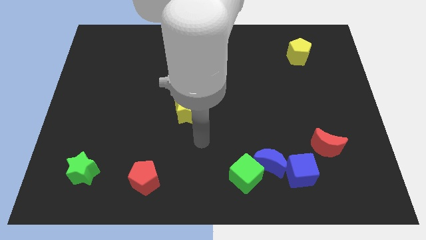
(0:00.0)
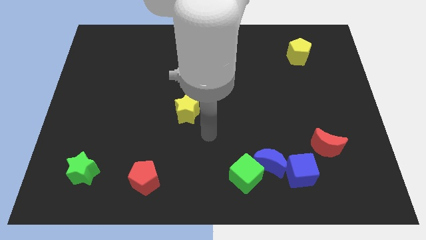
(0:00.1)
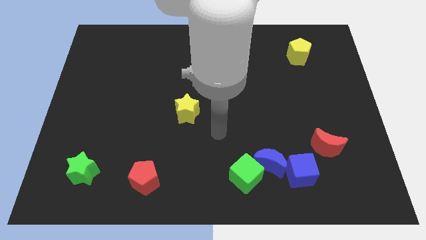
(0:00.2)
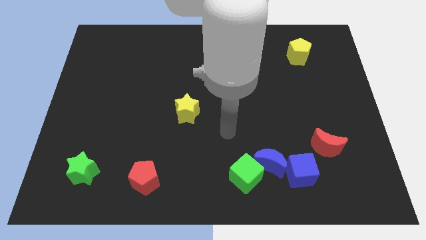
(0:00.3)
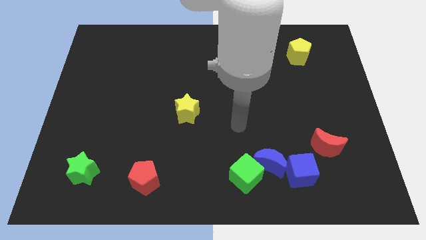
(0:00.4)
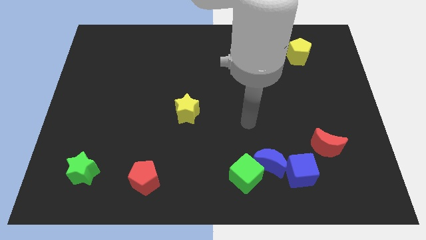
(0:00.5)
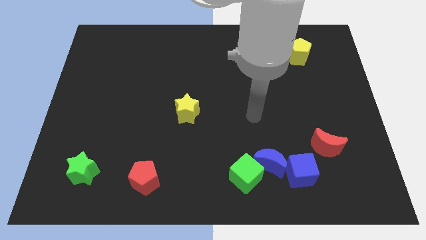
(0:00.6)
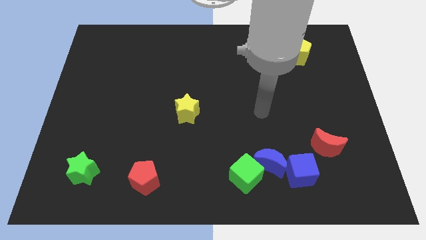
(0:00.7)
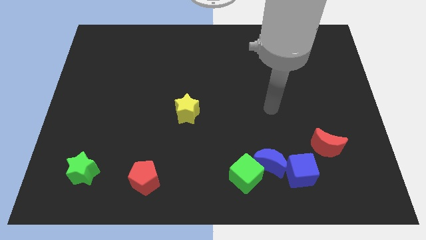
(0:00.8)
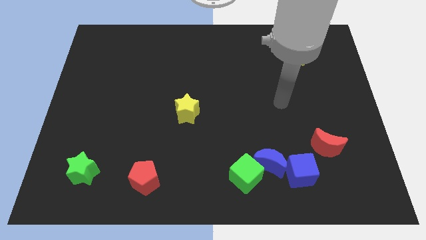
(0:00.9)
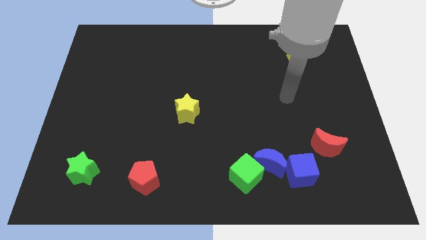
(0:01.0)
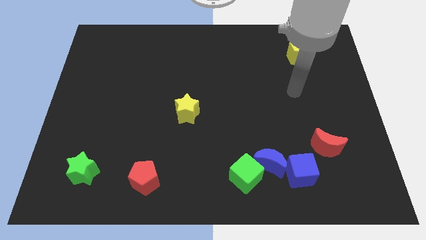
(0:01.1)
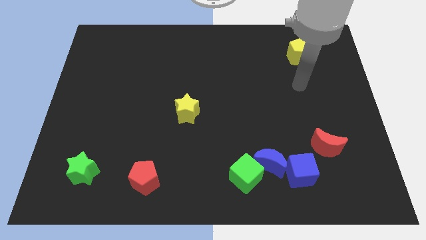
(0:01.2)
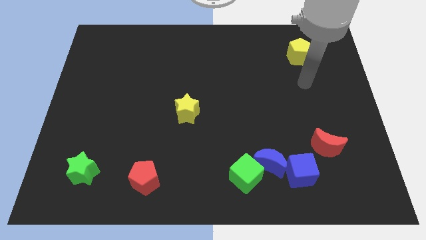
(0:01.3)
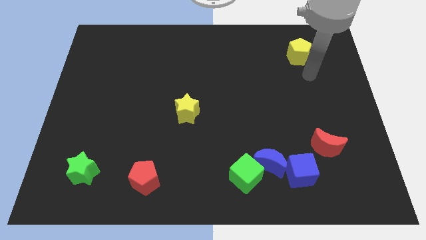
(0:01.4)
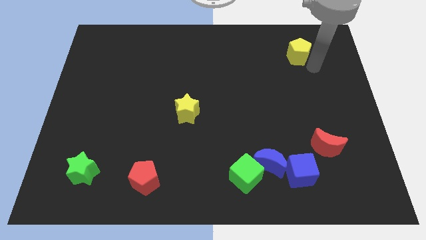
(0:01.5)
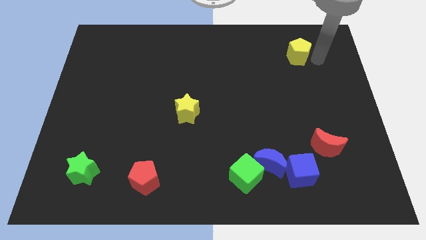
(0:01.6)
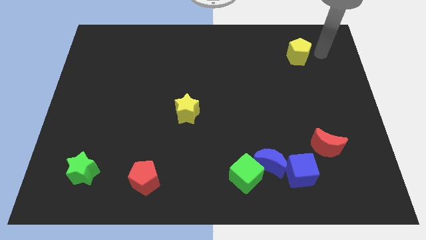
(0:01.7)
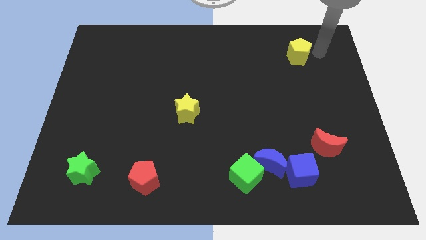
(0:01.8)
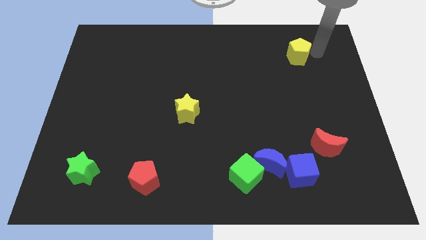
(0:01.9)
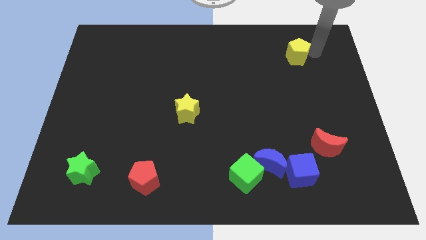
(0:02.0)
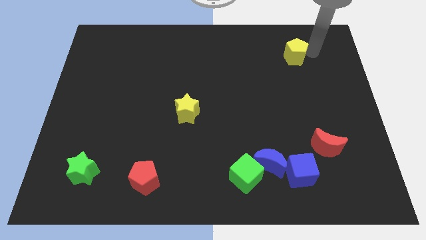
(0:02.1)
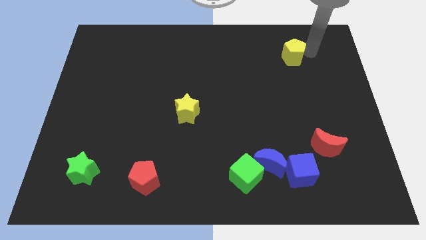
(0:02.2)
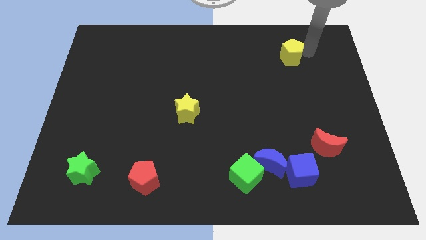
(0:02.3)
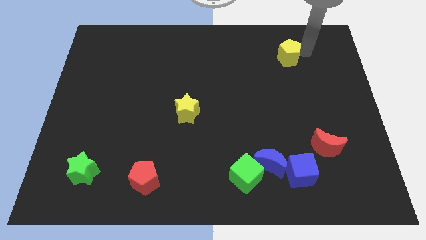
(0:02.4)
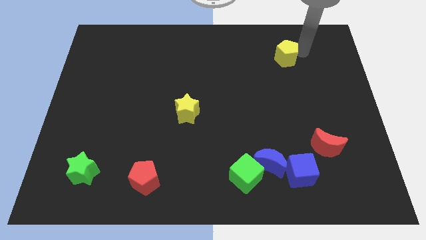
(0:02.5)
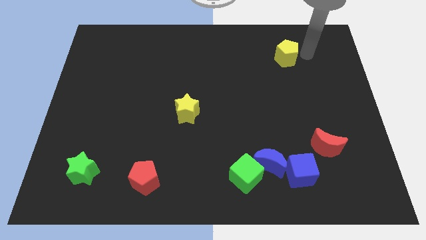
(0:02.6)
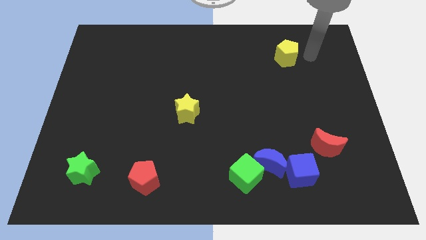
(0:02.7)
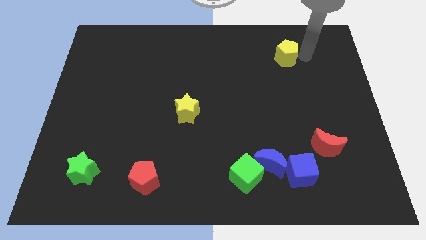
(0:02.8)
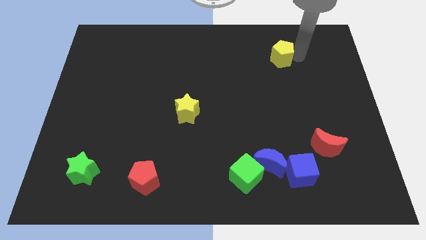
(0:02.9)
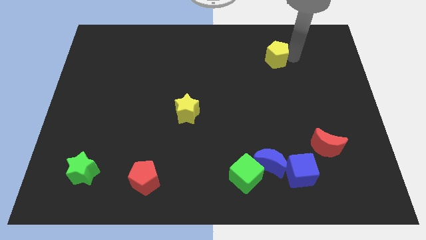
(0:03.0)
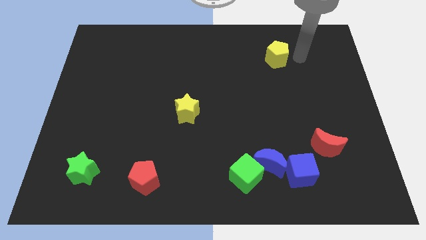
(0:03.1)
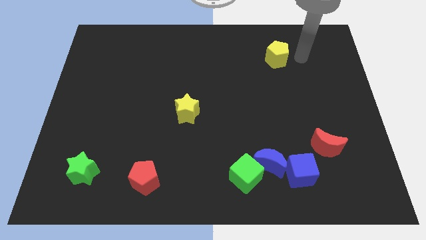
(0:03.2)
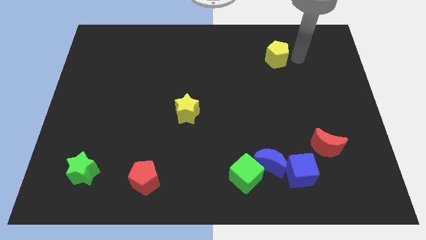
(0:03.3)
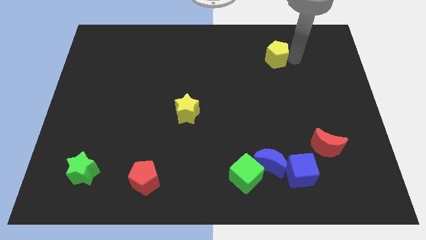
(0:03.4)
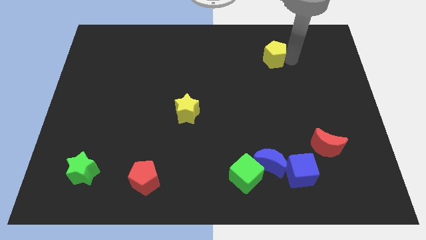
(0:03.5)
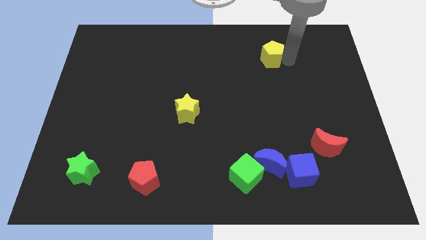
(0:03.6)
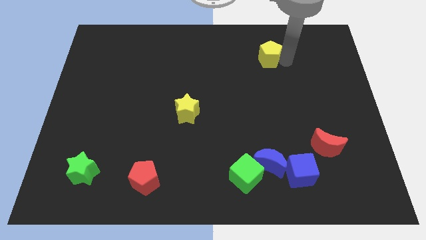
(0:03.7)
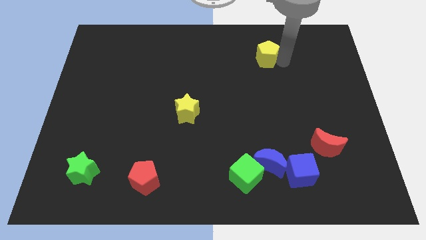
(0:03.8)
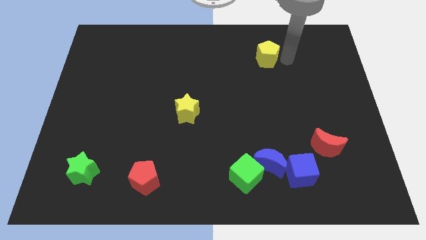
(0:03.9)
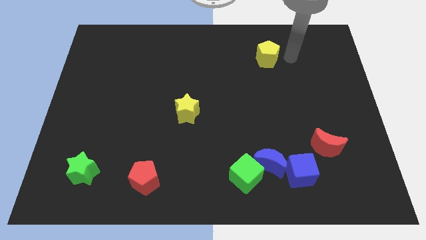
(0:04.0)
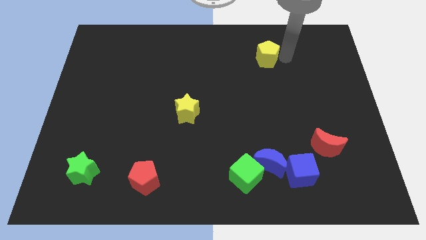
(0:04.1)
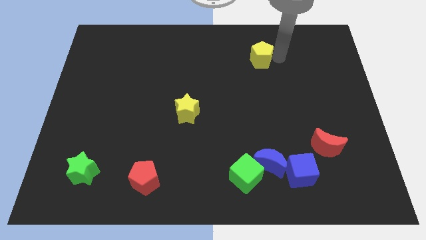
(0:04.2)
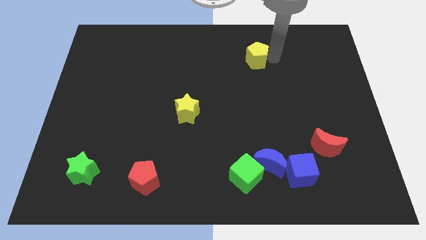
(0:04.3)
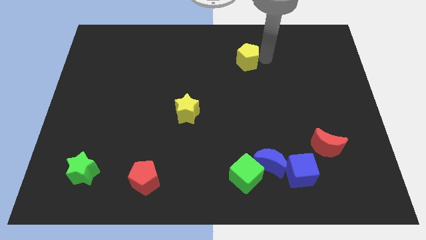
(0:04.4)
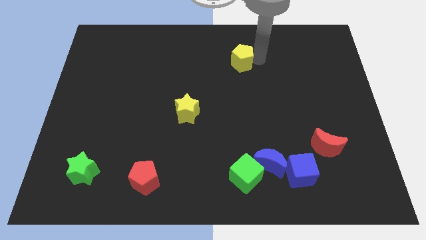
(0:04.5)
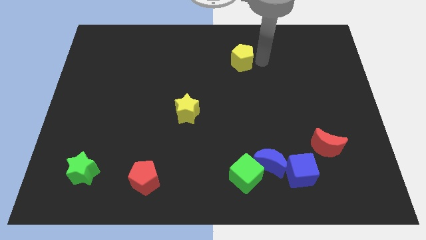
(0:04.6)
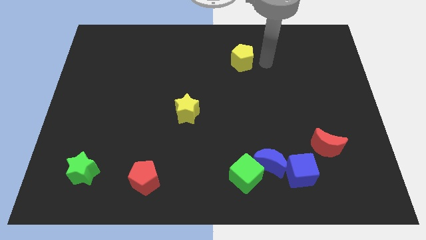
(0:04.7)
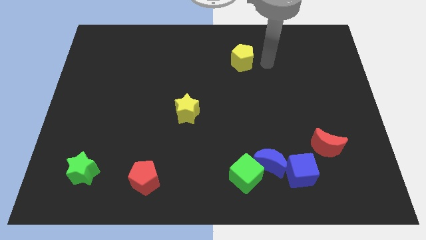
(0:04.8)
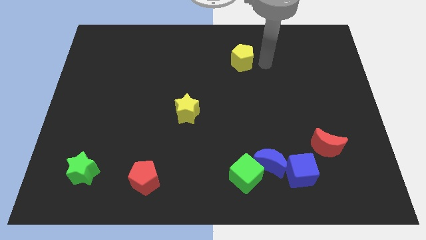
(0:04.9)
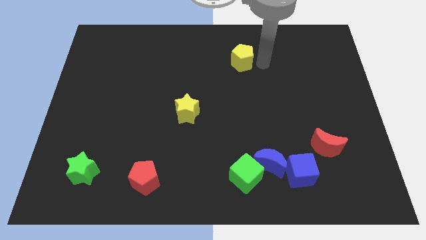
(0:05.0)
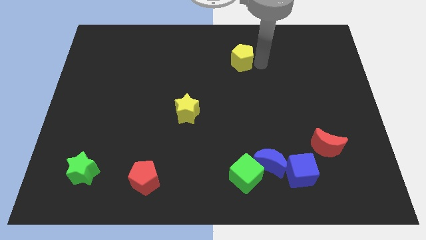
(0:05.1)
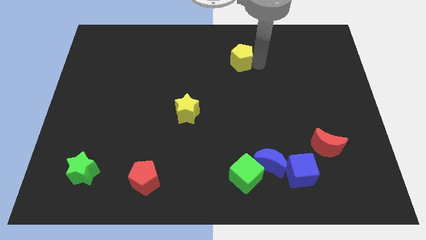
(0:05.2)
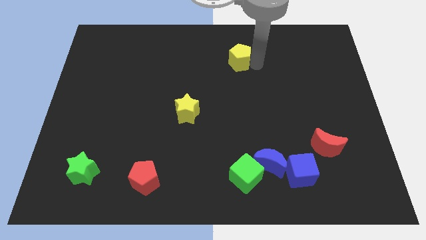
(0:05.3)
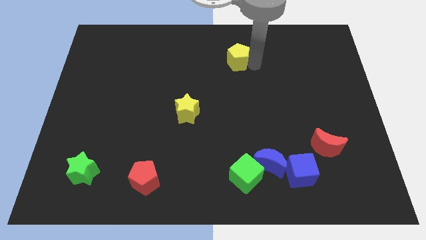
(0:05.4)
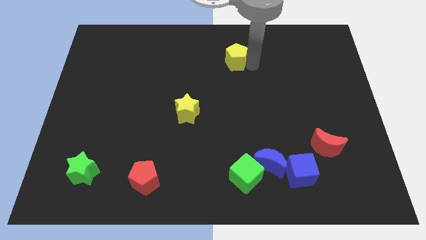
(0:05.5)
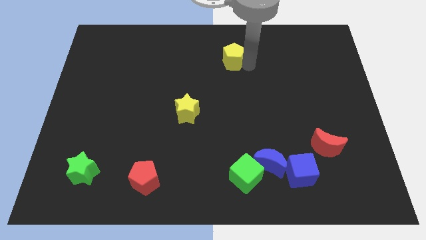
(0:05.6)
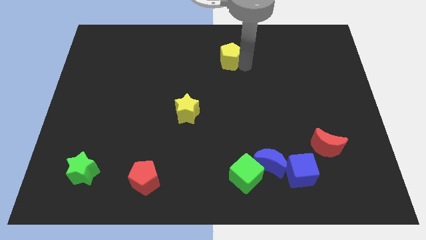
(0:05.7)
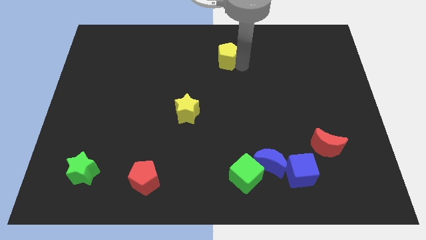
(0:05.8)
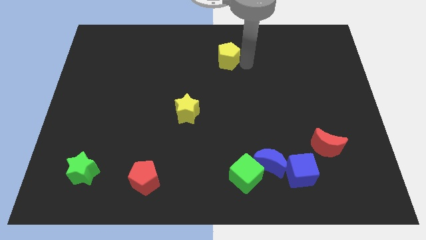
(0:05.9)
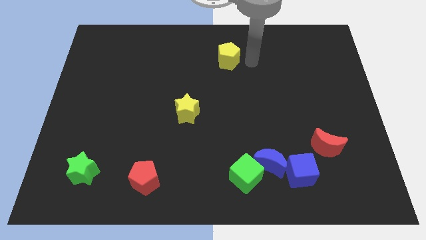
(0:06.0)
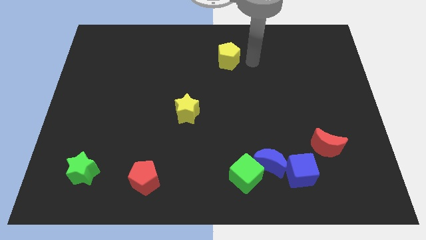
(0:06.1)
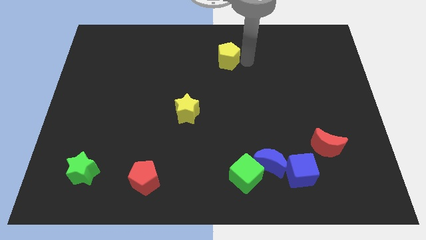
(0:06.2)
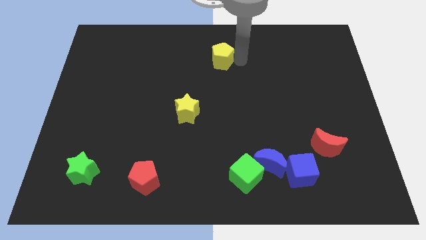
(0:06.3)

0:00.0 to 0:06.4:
push the yellow pentagon to the left

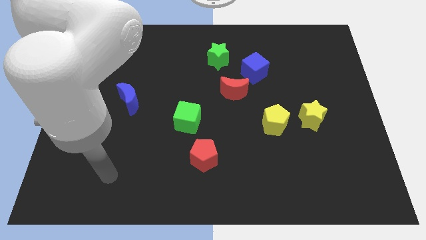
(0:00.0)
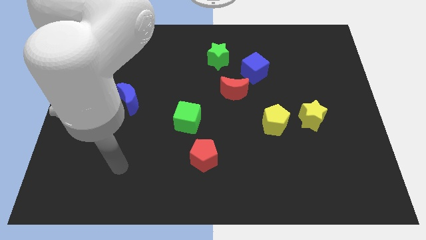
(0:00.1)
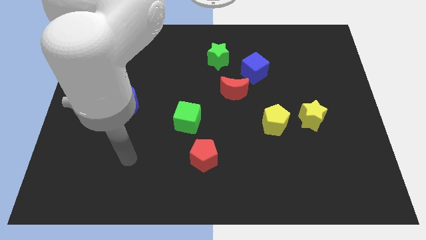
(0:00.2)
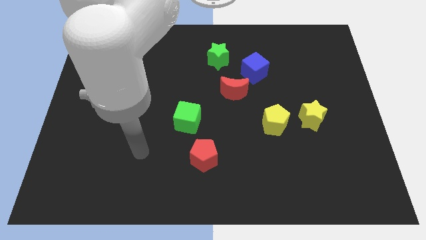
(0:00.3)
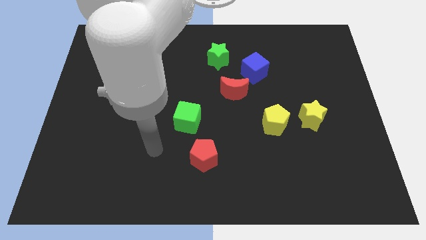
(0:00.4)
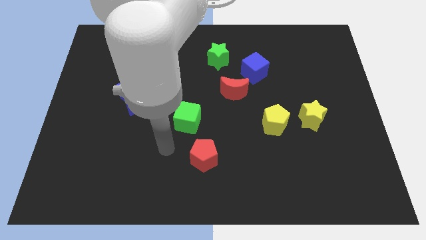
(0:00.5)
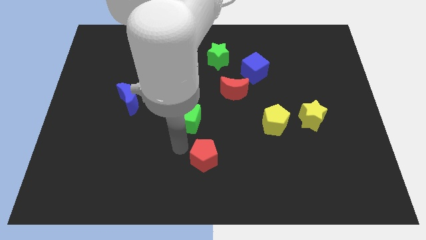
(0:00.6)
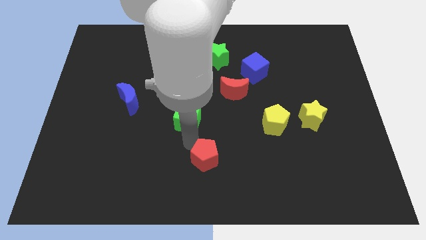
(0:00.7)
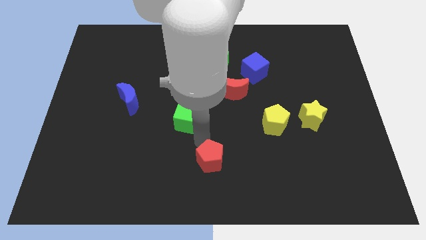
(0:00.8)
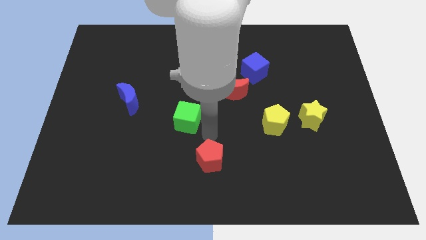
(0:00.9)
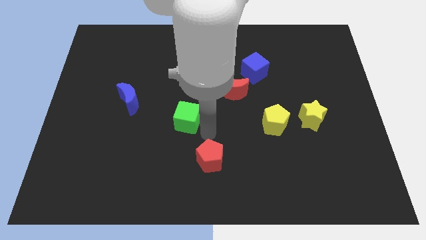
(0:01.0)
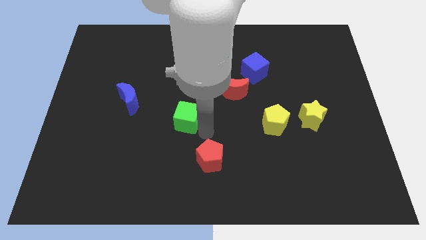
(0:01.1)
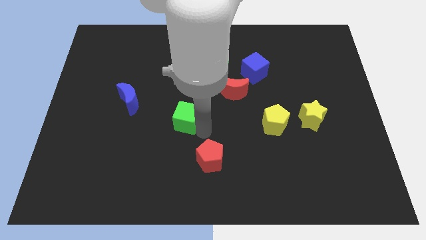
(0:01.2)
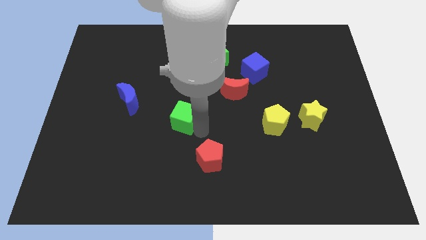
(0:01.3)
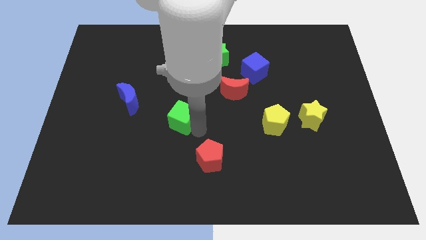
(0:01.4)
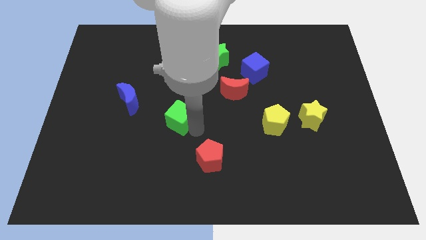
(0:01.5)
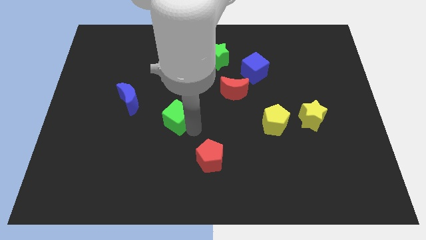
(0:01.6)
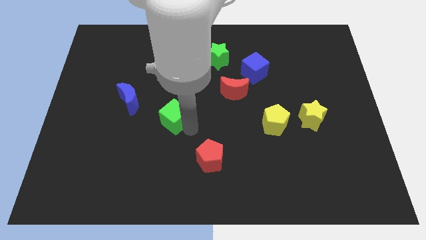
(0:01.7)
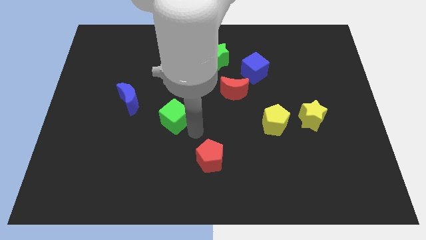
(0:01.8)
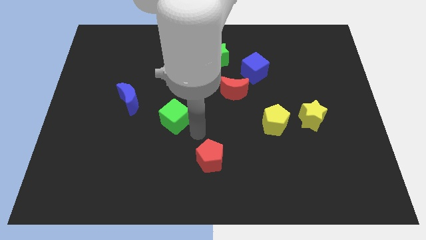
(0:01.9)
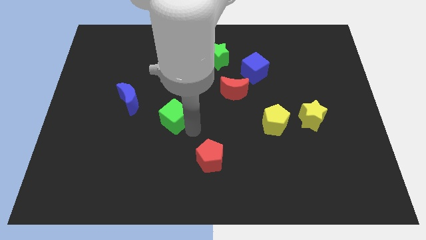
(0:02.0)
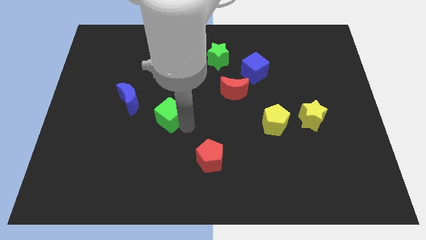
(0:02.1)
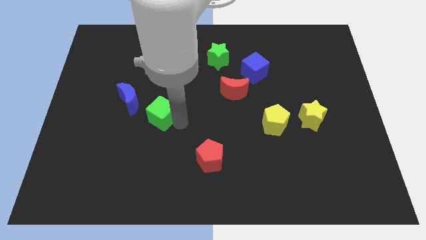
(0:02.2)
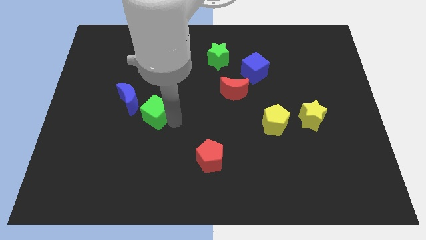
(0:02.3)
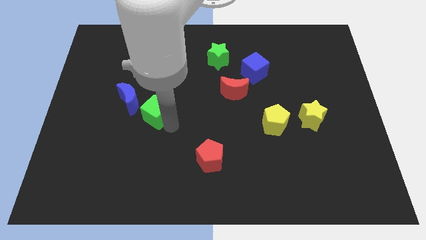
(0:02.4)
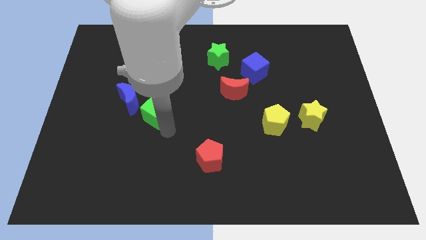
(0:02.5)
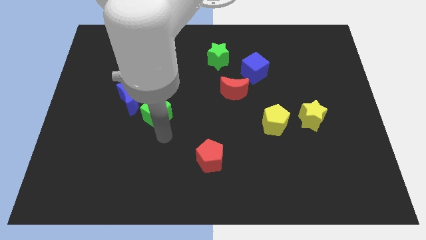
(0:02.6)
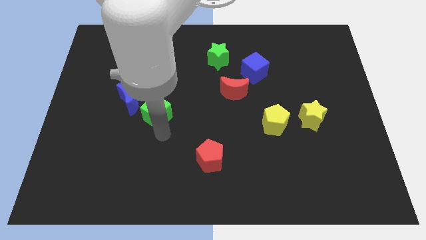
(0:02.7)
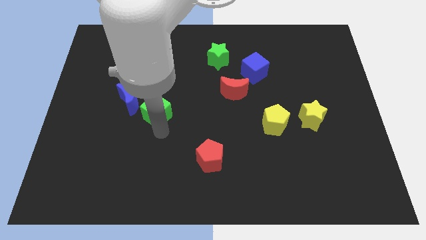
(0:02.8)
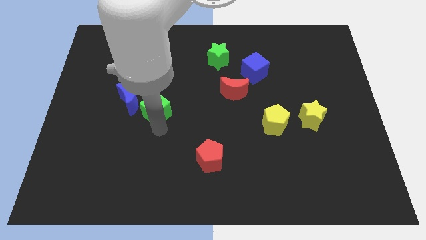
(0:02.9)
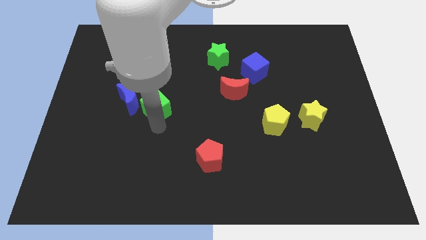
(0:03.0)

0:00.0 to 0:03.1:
push the green cube a little diagonally up and to the left
